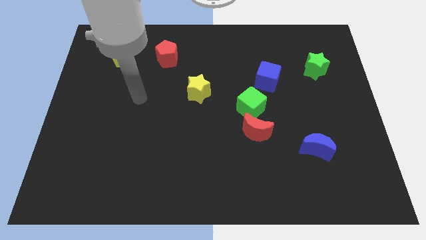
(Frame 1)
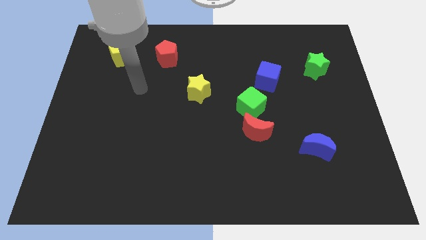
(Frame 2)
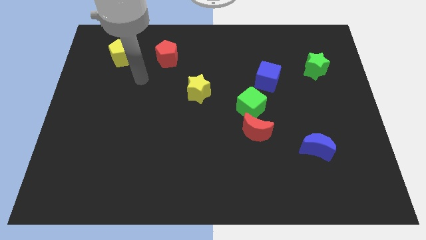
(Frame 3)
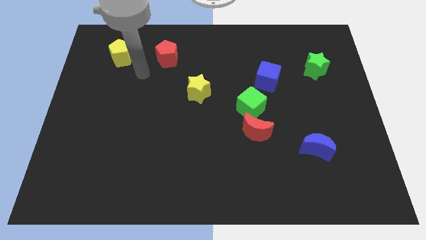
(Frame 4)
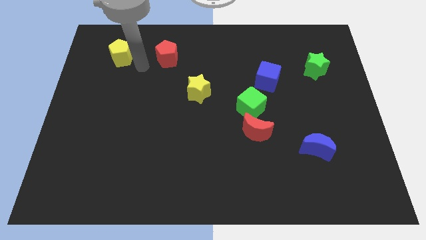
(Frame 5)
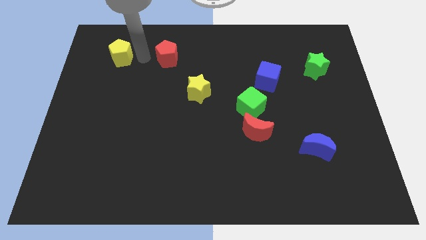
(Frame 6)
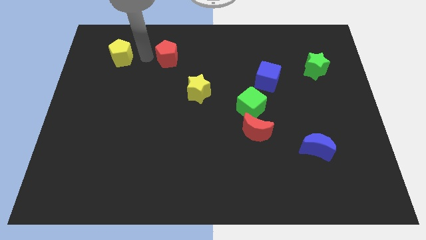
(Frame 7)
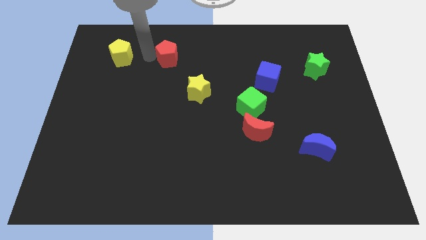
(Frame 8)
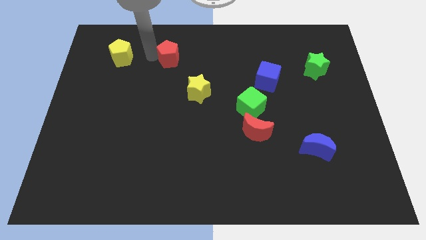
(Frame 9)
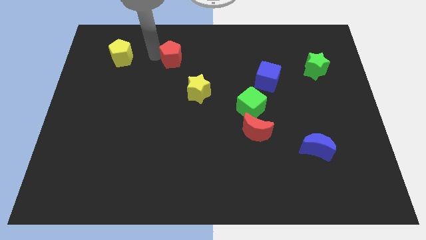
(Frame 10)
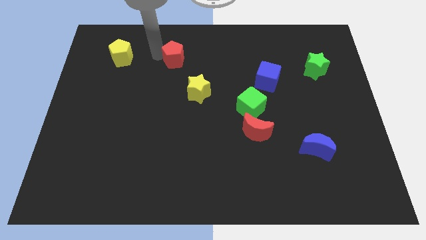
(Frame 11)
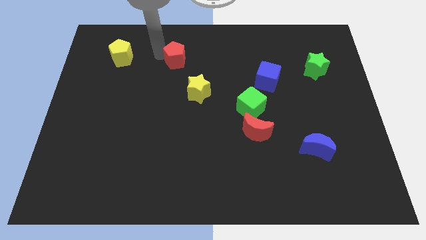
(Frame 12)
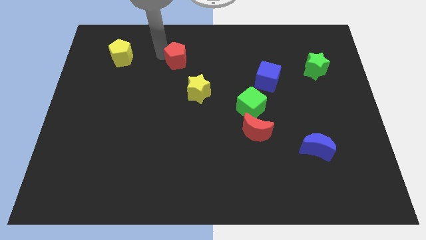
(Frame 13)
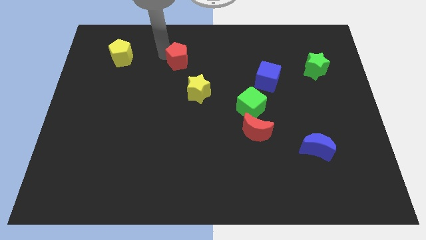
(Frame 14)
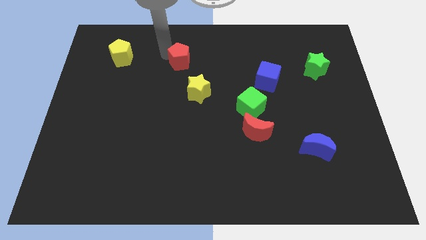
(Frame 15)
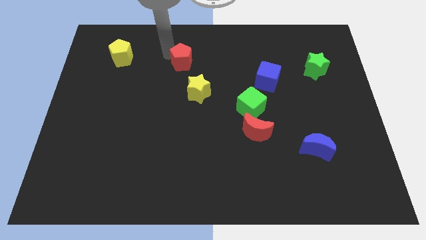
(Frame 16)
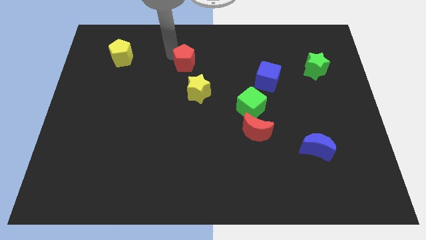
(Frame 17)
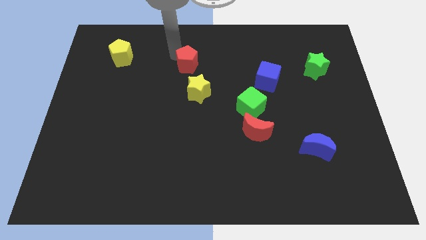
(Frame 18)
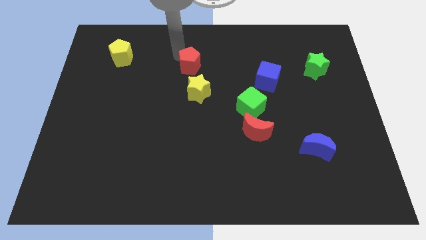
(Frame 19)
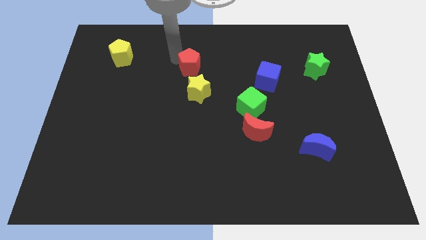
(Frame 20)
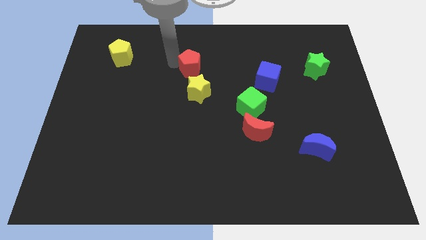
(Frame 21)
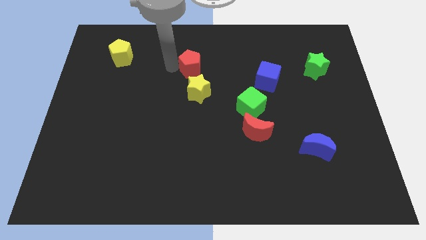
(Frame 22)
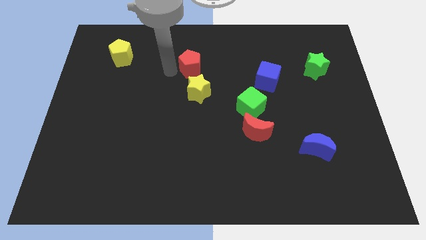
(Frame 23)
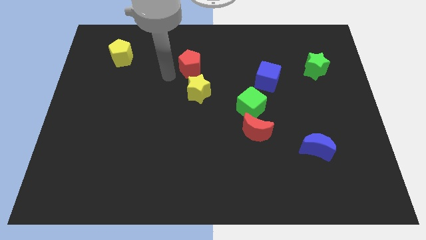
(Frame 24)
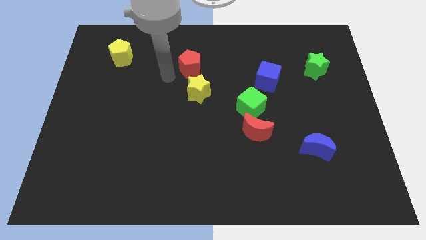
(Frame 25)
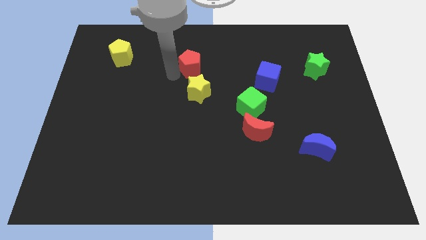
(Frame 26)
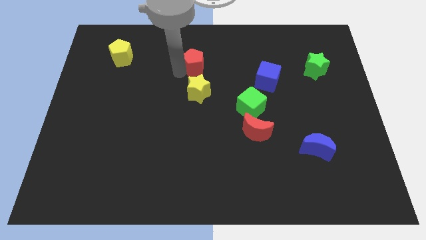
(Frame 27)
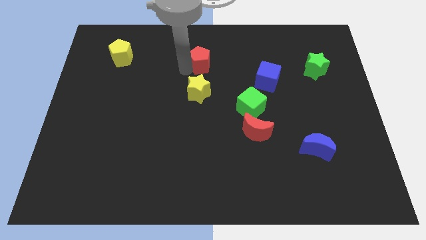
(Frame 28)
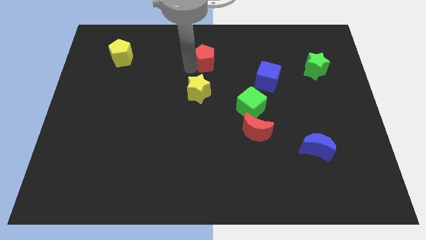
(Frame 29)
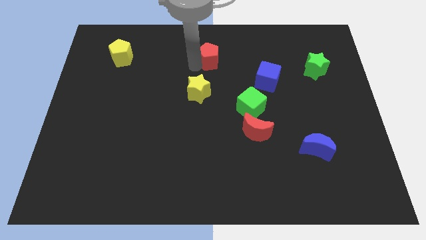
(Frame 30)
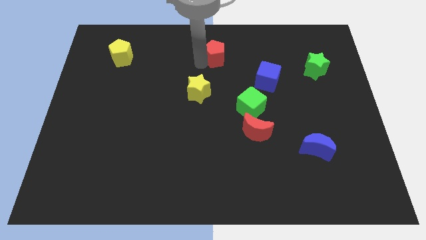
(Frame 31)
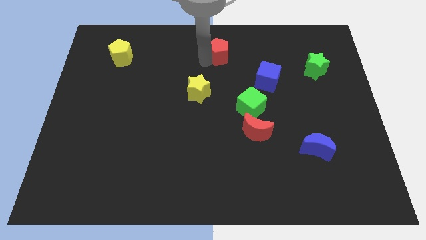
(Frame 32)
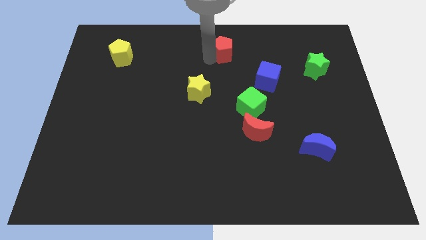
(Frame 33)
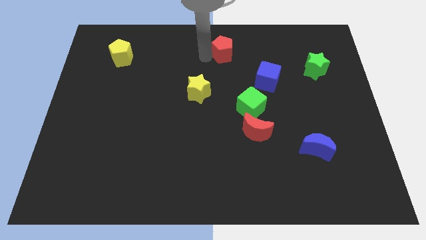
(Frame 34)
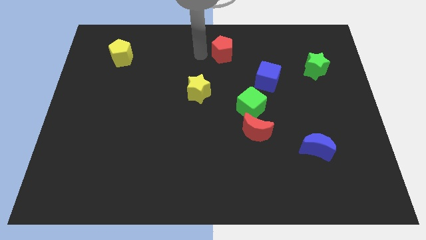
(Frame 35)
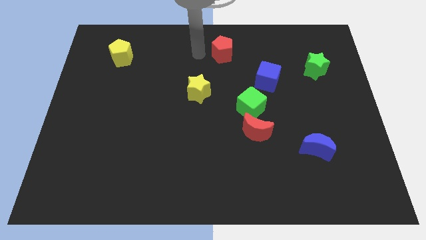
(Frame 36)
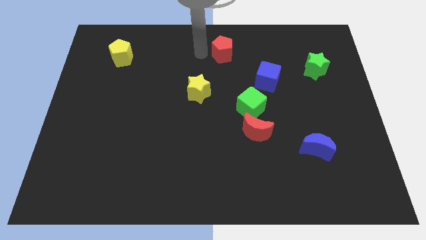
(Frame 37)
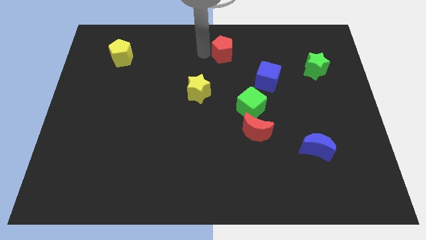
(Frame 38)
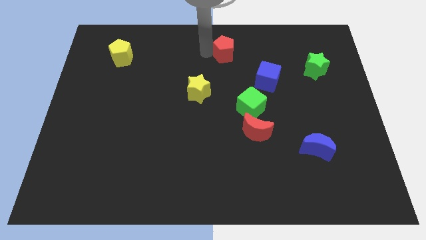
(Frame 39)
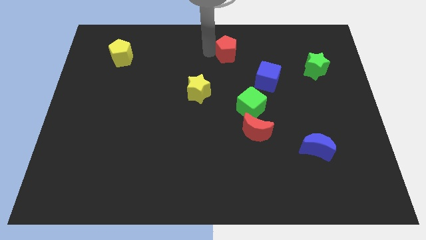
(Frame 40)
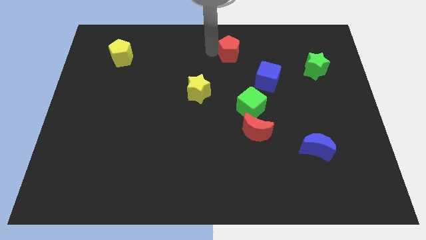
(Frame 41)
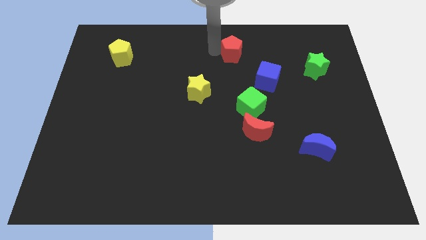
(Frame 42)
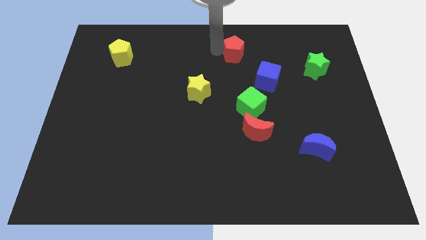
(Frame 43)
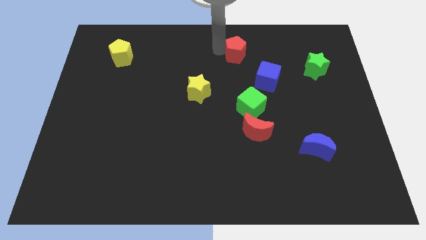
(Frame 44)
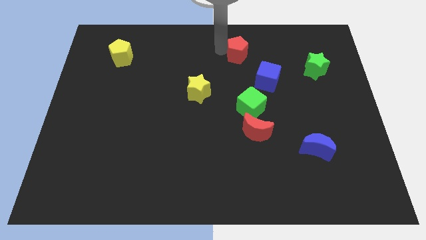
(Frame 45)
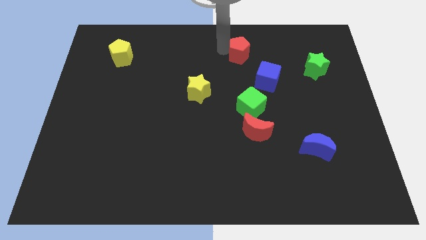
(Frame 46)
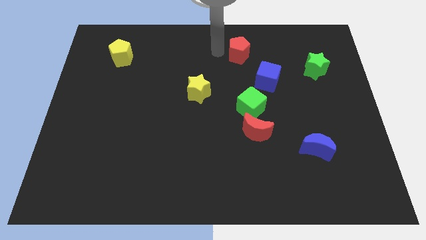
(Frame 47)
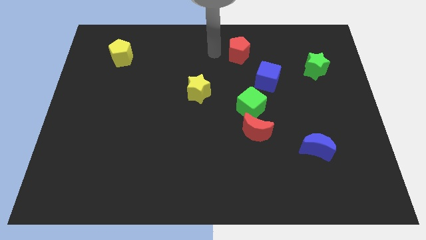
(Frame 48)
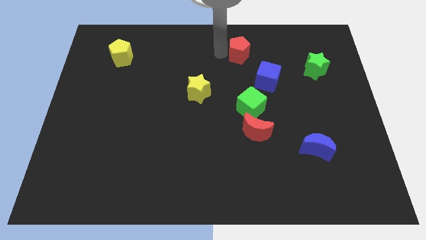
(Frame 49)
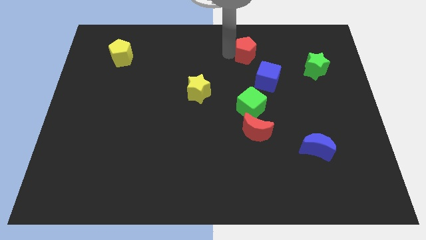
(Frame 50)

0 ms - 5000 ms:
push the red pentagon right

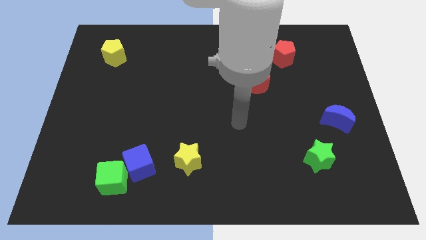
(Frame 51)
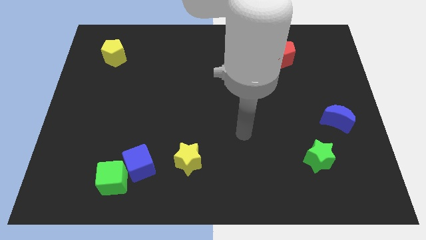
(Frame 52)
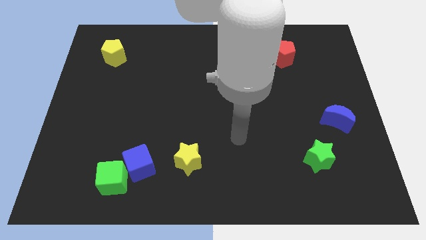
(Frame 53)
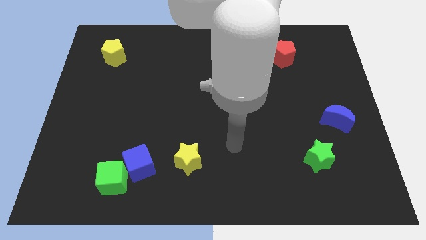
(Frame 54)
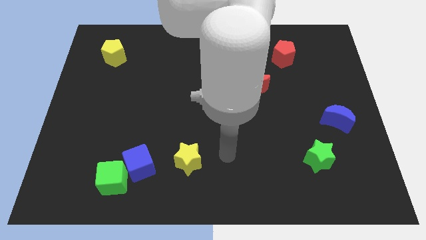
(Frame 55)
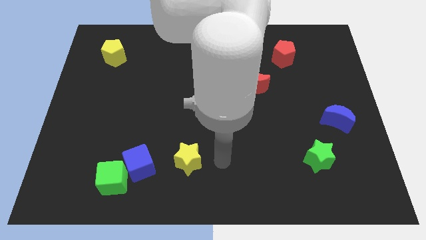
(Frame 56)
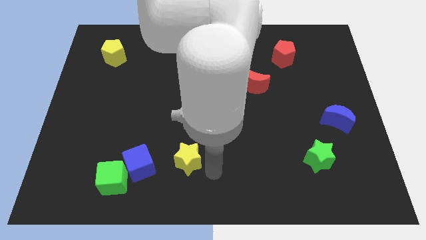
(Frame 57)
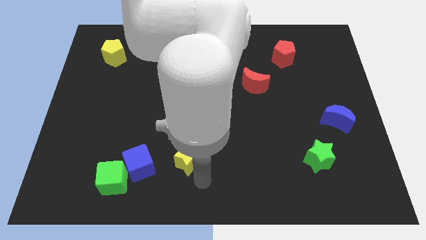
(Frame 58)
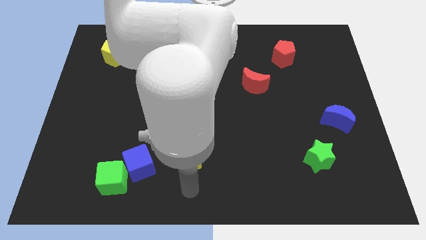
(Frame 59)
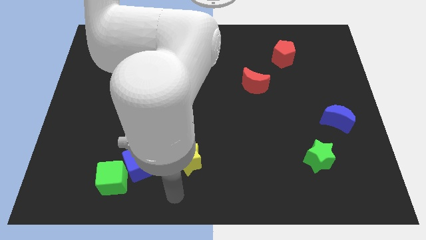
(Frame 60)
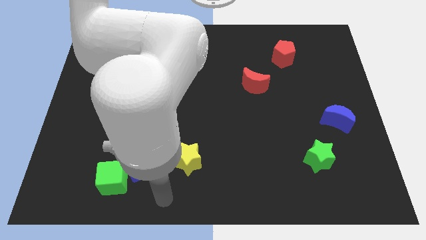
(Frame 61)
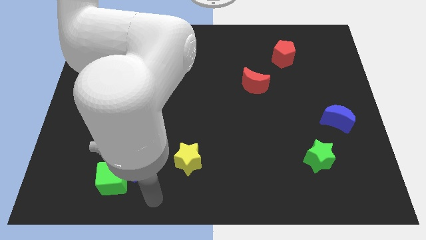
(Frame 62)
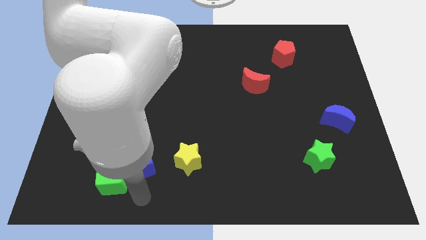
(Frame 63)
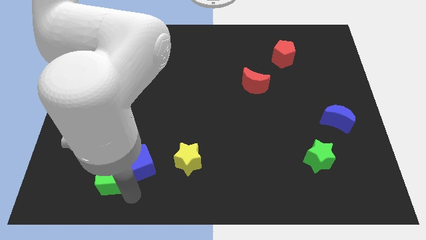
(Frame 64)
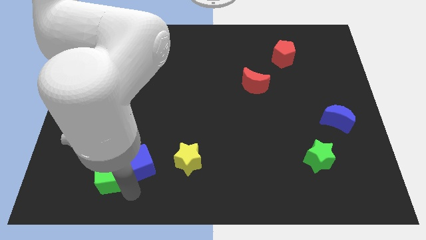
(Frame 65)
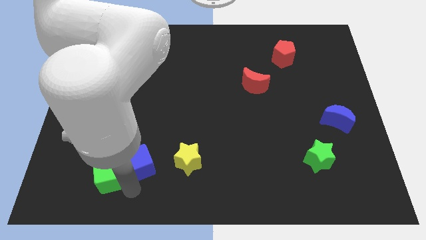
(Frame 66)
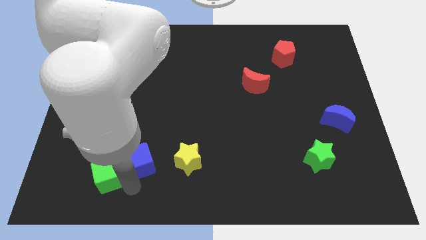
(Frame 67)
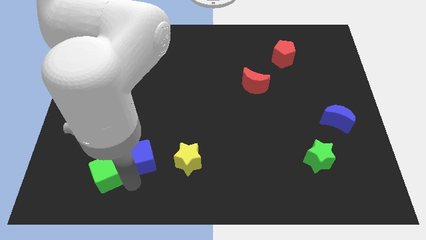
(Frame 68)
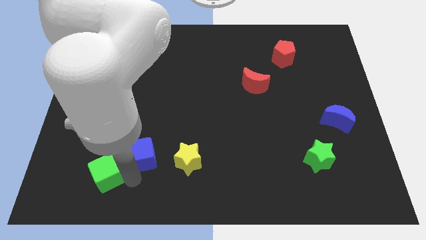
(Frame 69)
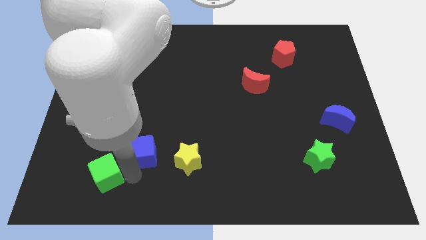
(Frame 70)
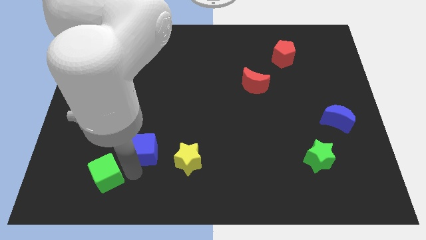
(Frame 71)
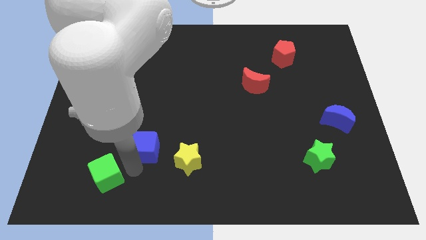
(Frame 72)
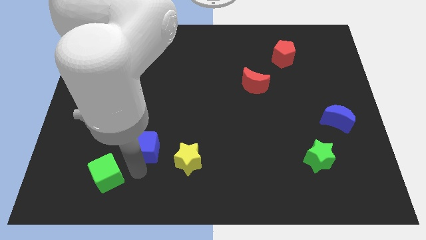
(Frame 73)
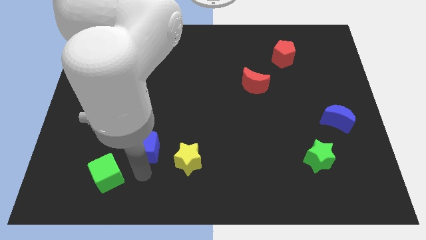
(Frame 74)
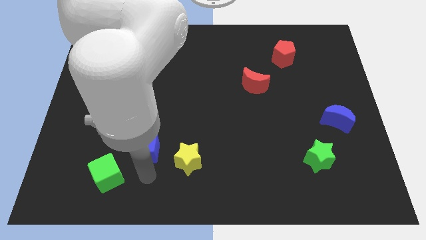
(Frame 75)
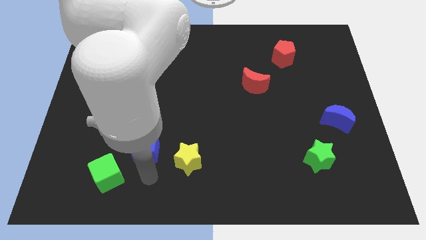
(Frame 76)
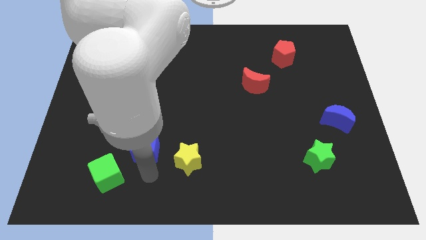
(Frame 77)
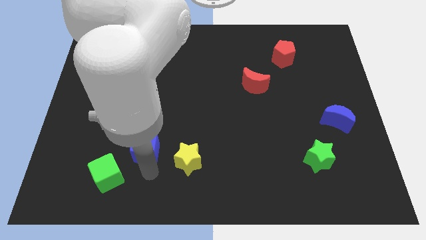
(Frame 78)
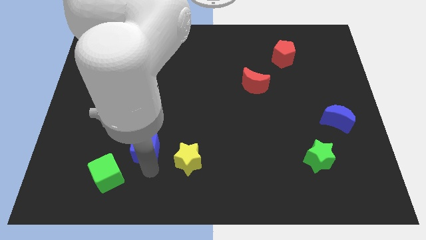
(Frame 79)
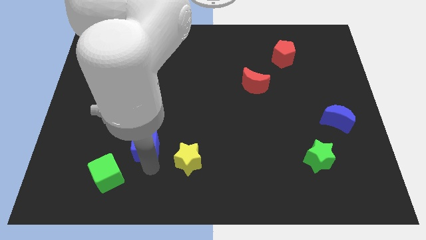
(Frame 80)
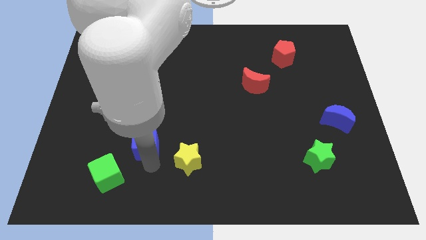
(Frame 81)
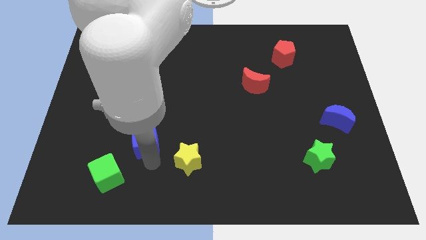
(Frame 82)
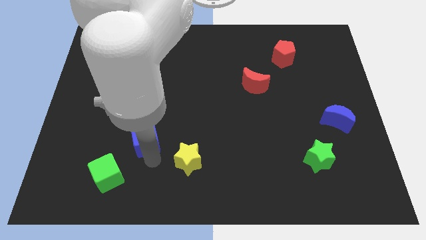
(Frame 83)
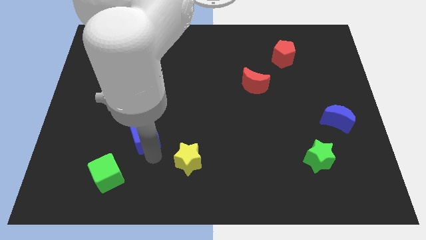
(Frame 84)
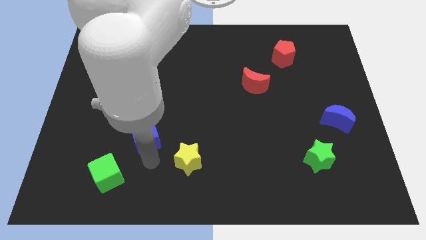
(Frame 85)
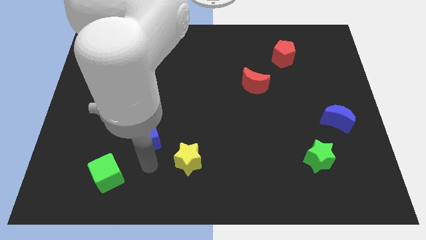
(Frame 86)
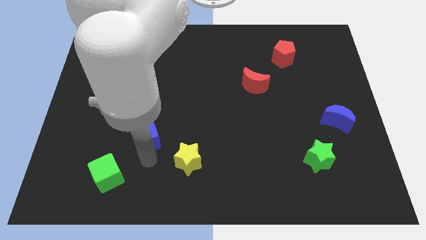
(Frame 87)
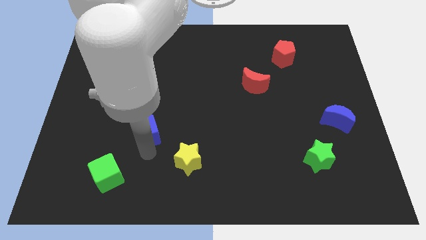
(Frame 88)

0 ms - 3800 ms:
slightly move the blue cube up
